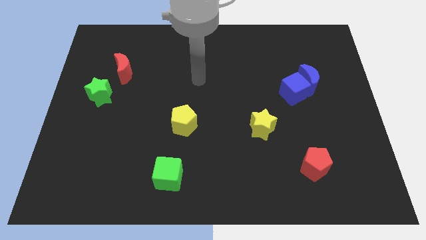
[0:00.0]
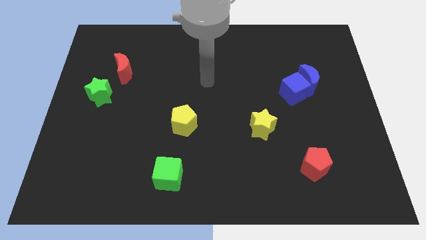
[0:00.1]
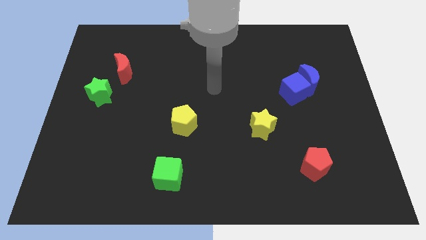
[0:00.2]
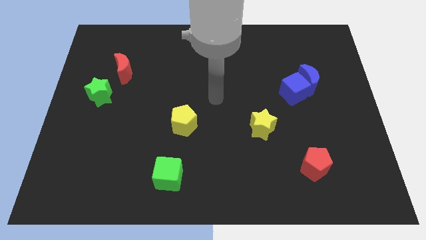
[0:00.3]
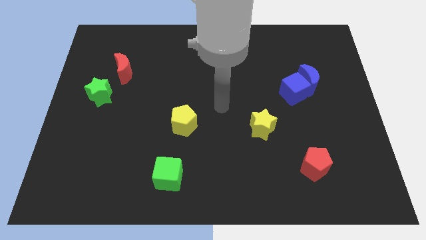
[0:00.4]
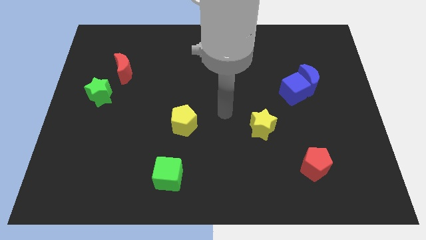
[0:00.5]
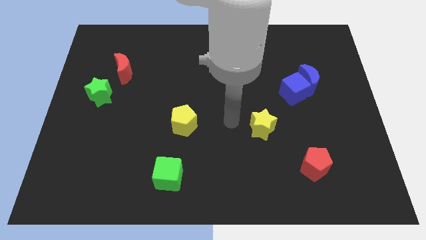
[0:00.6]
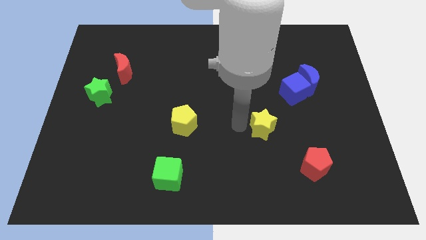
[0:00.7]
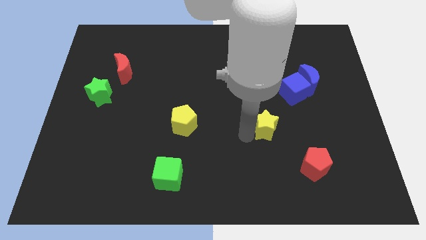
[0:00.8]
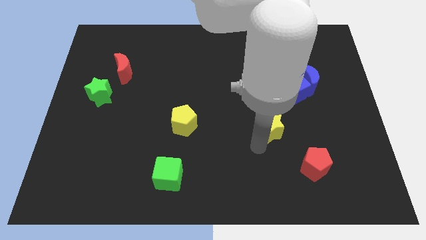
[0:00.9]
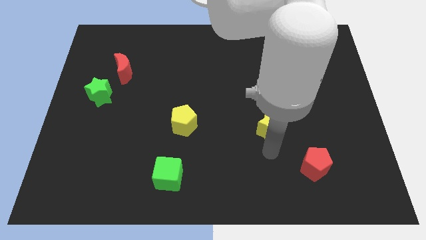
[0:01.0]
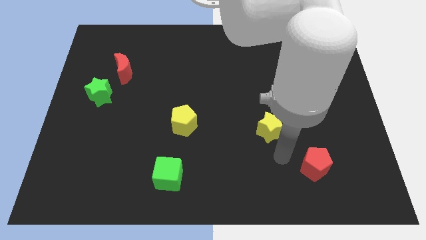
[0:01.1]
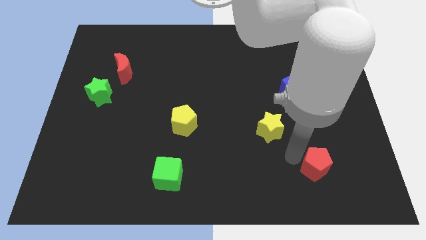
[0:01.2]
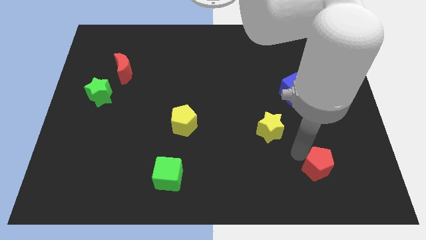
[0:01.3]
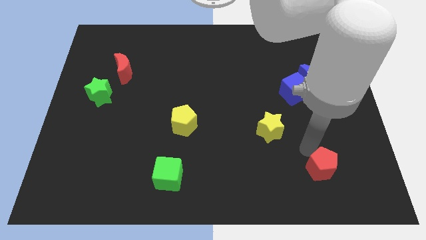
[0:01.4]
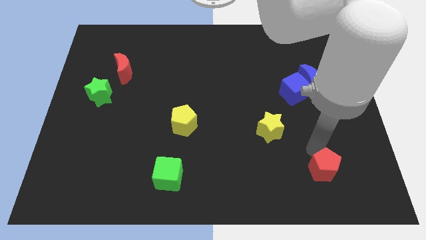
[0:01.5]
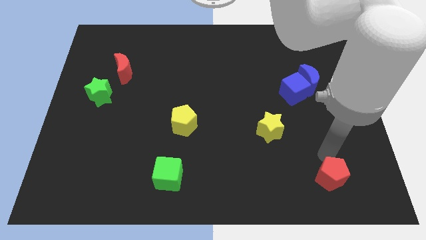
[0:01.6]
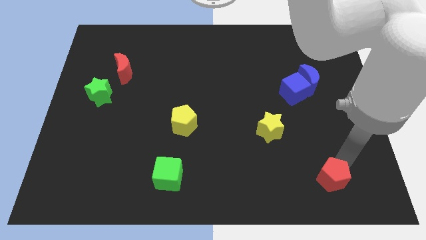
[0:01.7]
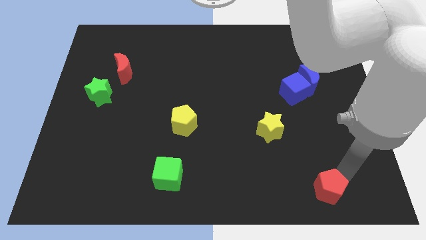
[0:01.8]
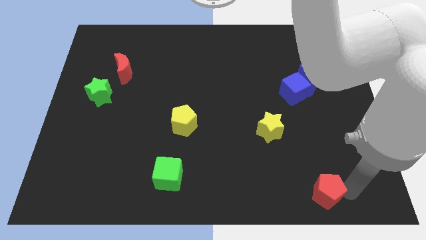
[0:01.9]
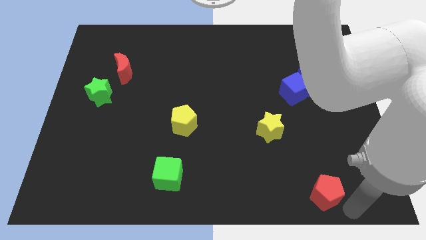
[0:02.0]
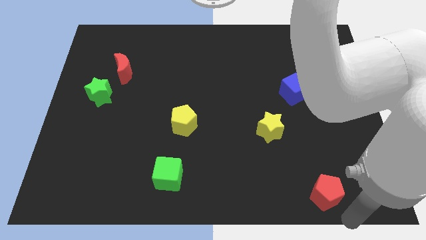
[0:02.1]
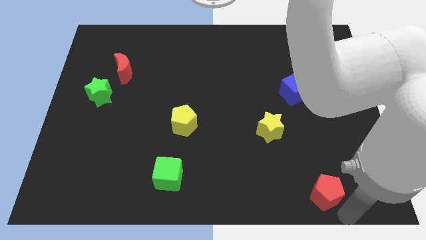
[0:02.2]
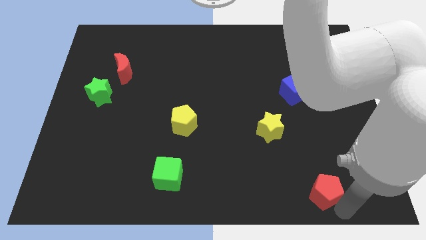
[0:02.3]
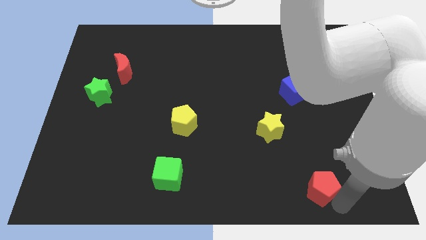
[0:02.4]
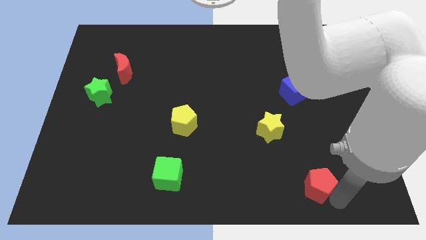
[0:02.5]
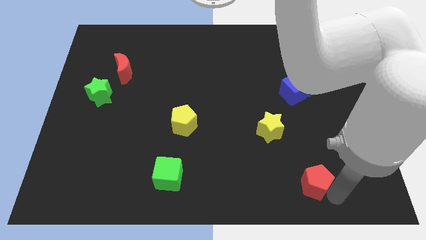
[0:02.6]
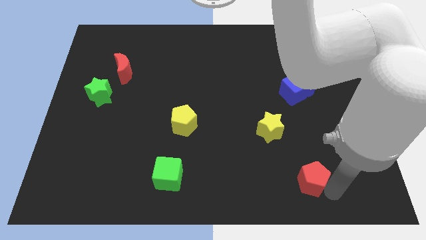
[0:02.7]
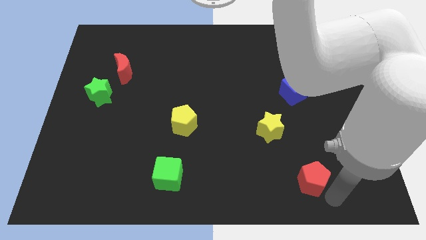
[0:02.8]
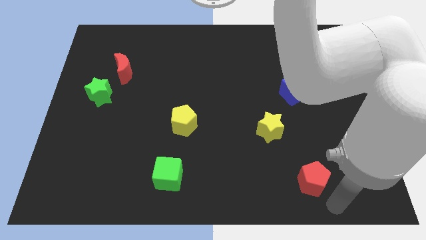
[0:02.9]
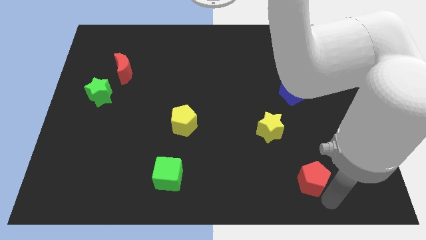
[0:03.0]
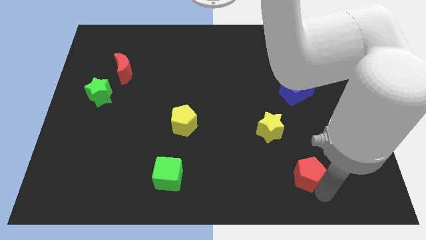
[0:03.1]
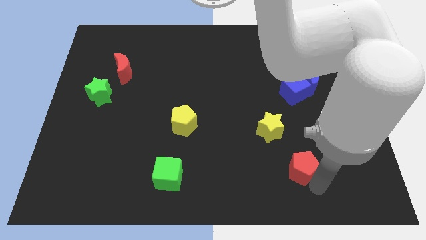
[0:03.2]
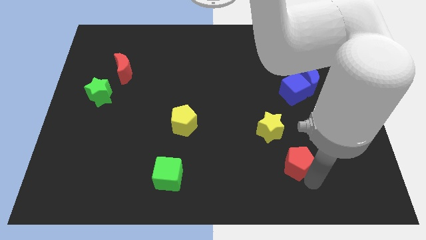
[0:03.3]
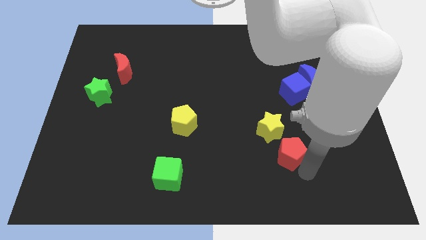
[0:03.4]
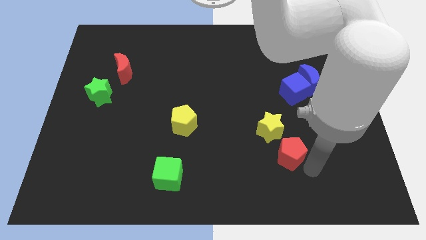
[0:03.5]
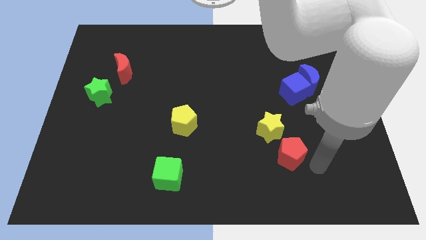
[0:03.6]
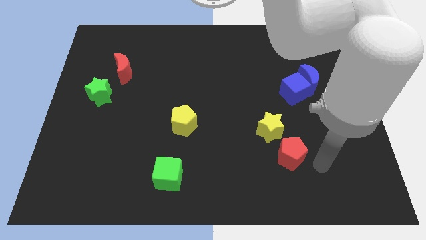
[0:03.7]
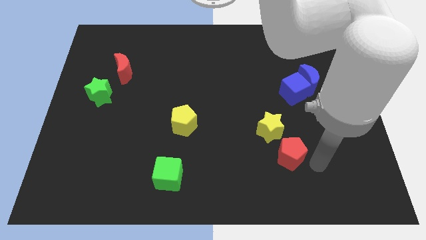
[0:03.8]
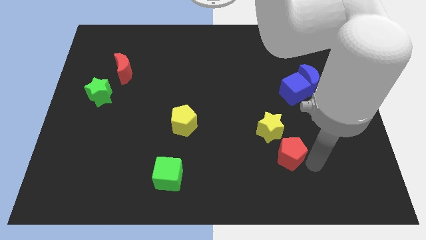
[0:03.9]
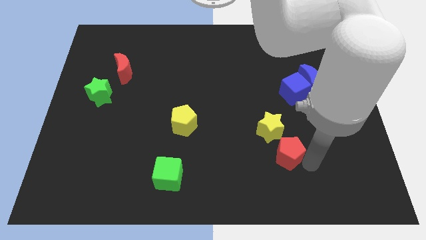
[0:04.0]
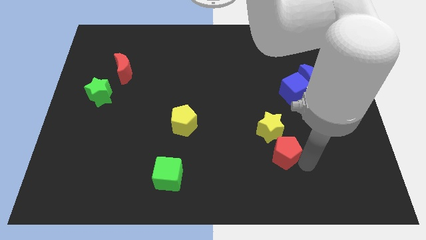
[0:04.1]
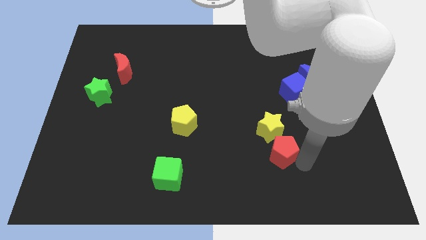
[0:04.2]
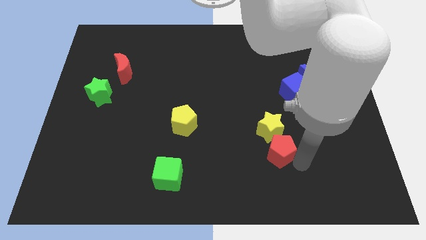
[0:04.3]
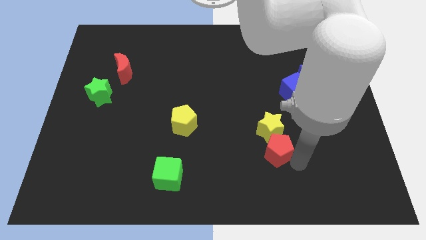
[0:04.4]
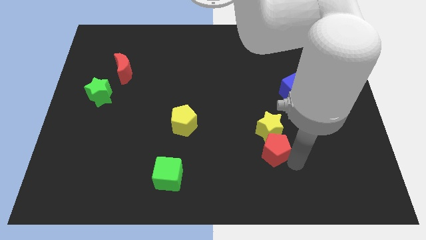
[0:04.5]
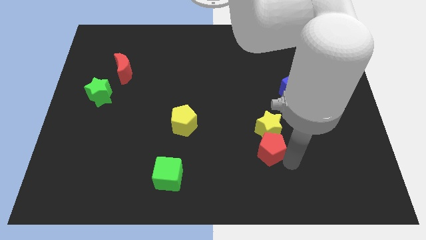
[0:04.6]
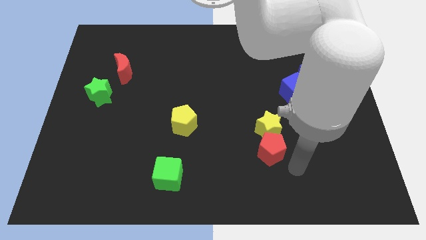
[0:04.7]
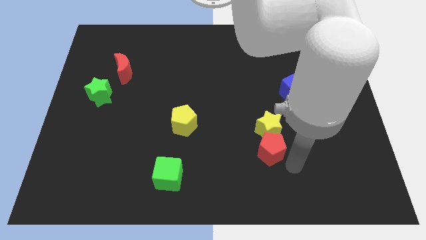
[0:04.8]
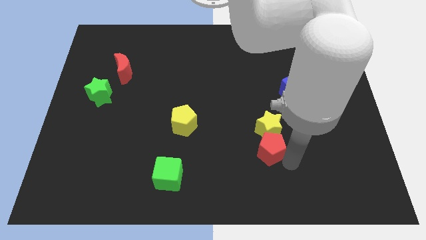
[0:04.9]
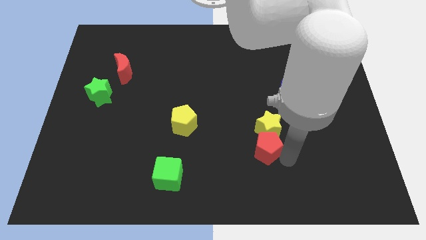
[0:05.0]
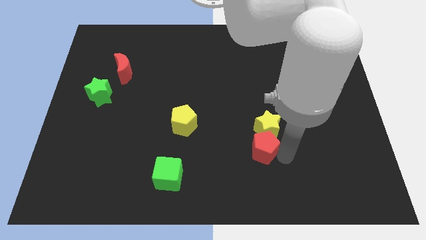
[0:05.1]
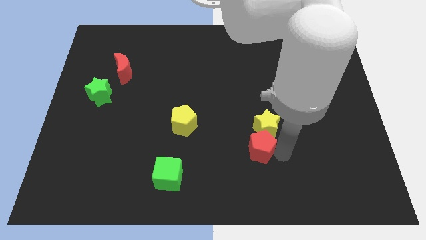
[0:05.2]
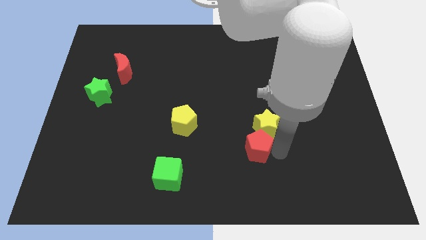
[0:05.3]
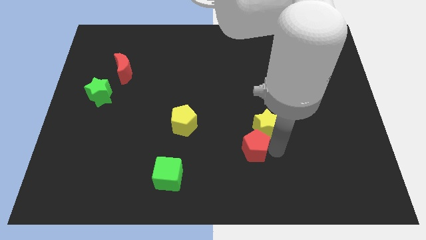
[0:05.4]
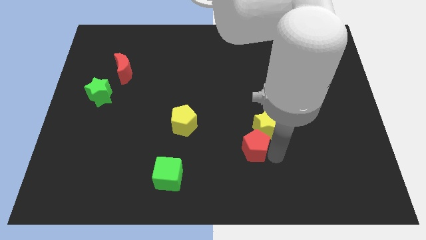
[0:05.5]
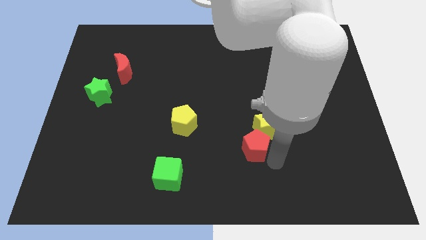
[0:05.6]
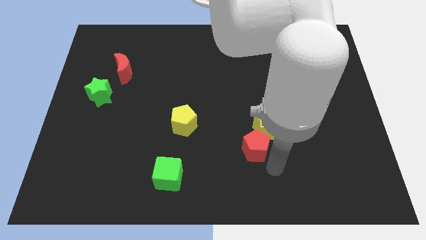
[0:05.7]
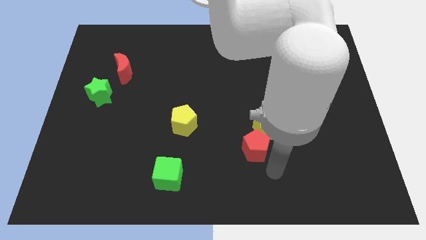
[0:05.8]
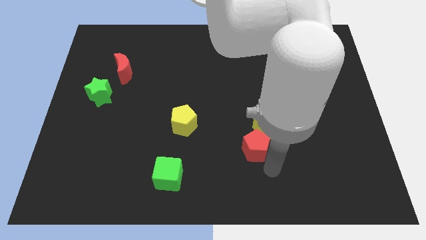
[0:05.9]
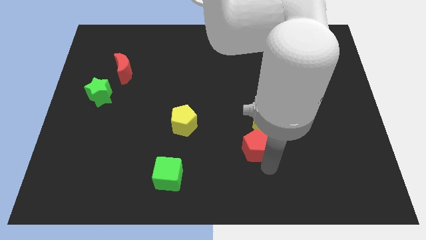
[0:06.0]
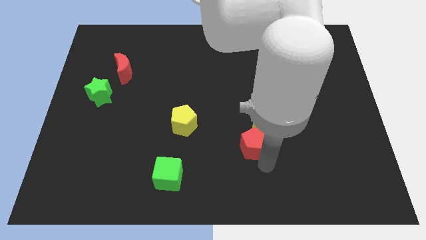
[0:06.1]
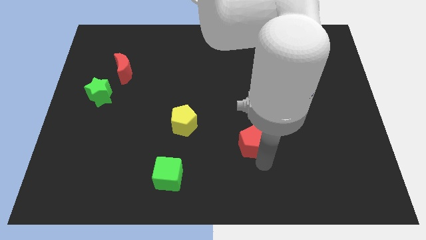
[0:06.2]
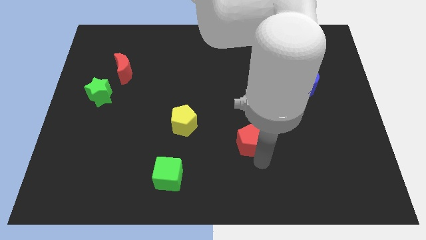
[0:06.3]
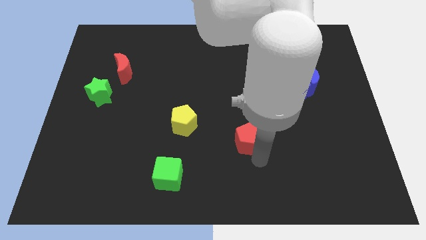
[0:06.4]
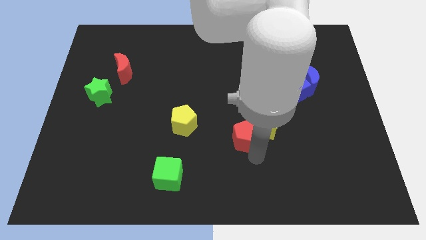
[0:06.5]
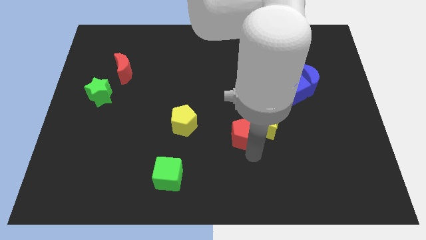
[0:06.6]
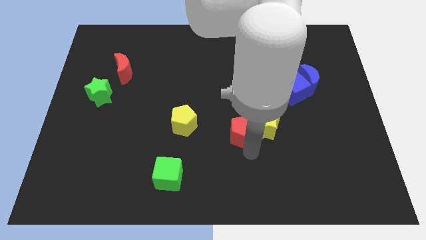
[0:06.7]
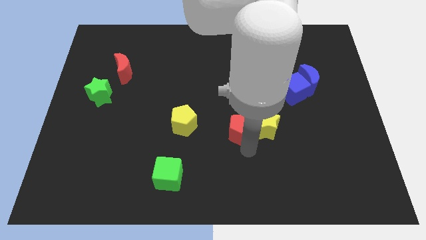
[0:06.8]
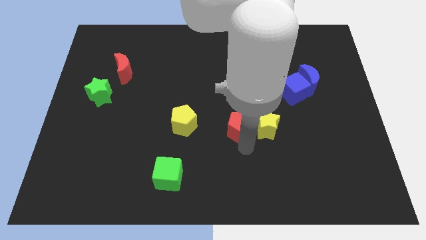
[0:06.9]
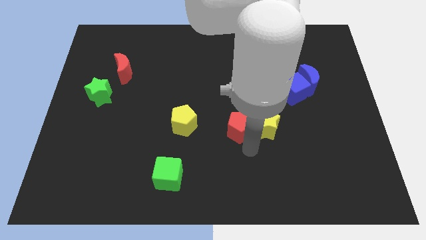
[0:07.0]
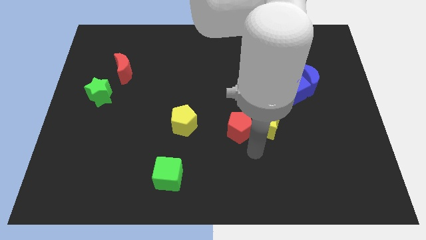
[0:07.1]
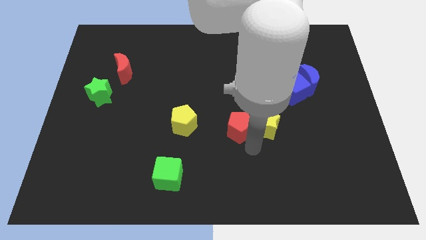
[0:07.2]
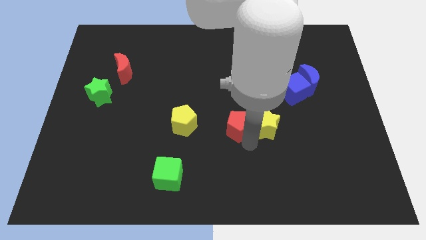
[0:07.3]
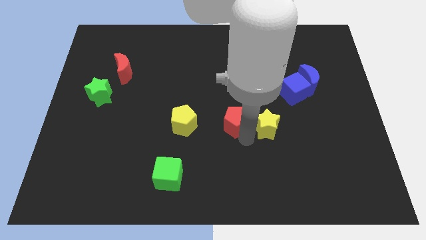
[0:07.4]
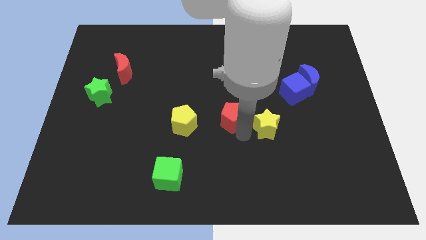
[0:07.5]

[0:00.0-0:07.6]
move the red pentagon up and to the left diagonally

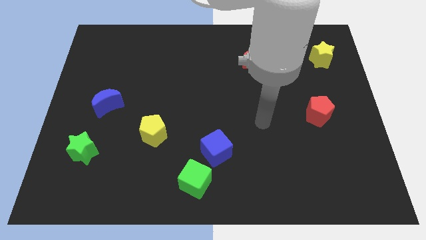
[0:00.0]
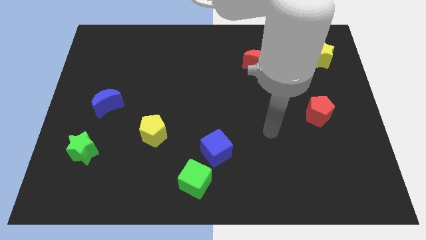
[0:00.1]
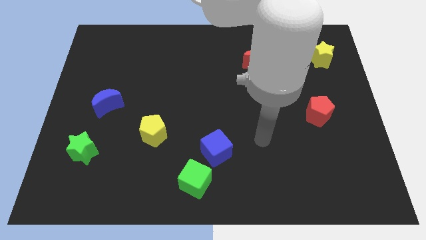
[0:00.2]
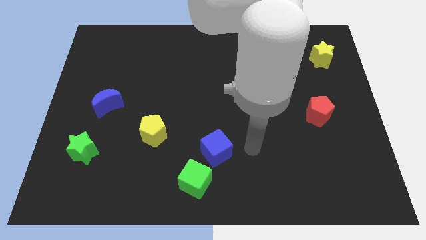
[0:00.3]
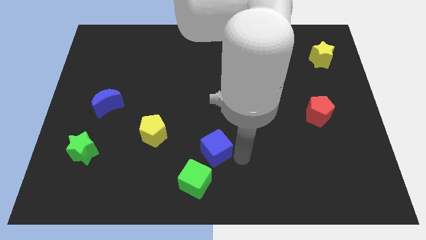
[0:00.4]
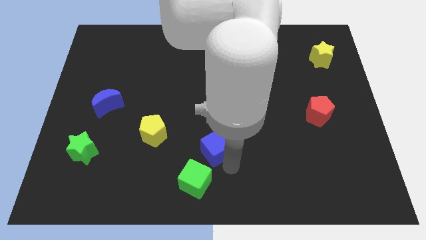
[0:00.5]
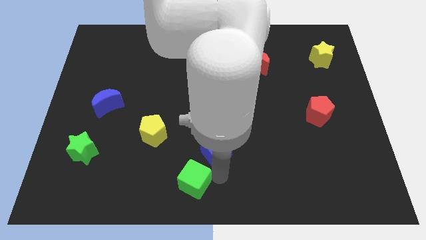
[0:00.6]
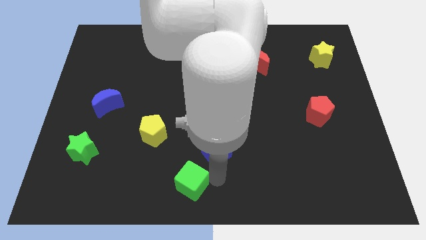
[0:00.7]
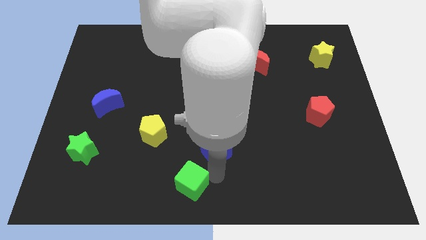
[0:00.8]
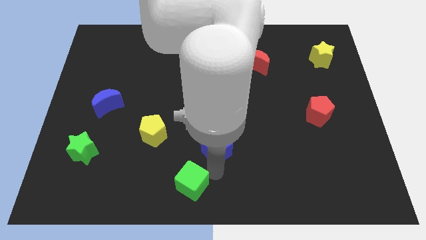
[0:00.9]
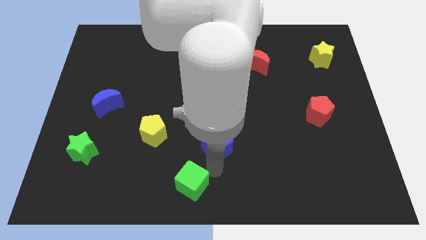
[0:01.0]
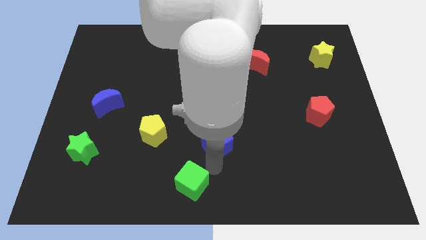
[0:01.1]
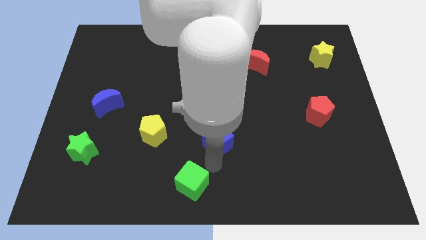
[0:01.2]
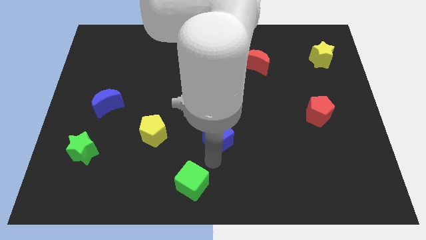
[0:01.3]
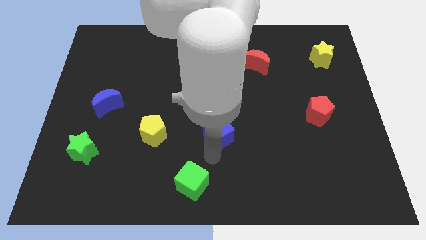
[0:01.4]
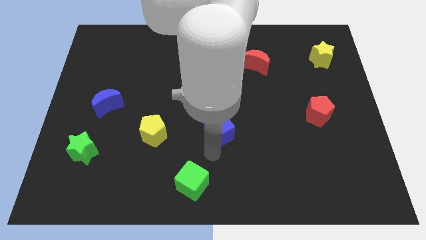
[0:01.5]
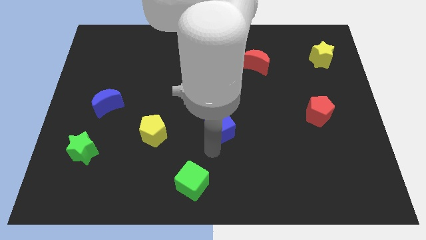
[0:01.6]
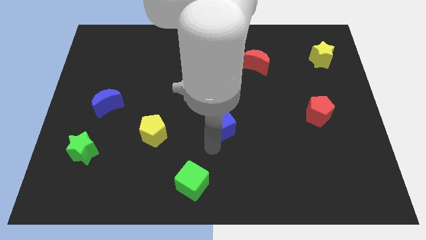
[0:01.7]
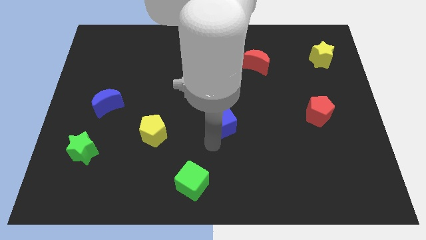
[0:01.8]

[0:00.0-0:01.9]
slightly push the blue cube upwards
